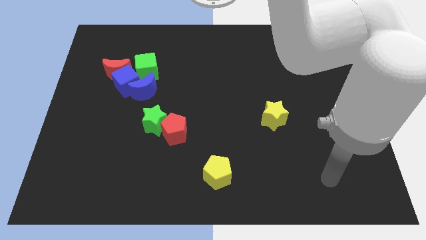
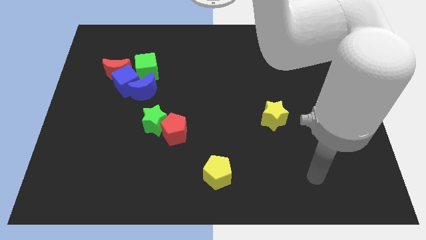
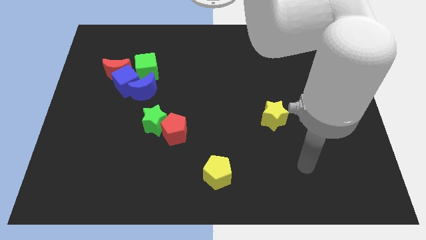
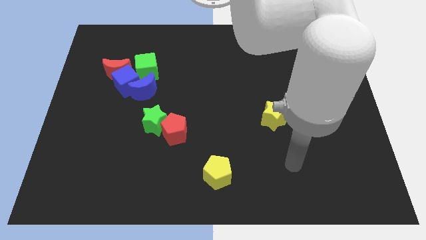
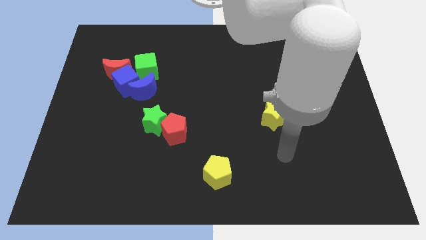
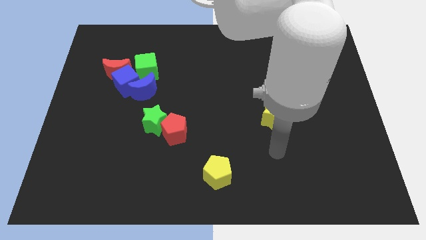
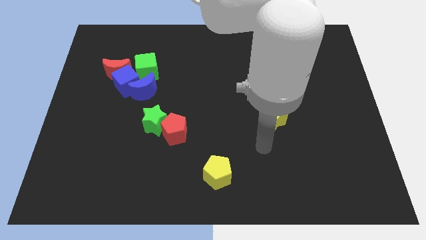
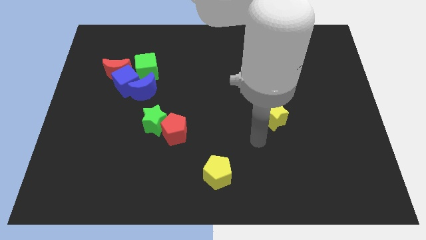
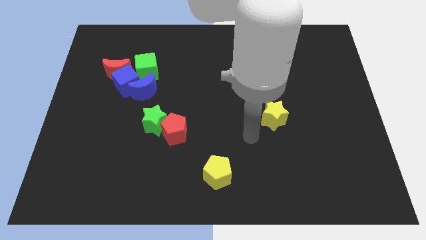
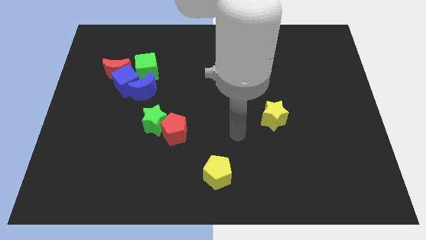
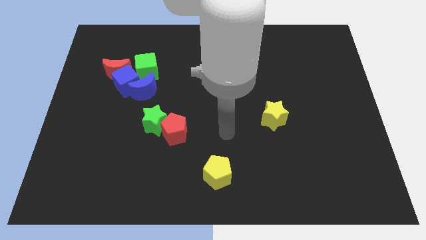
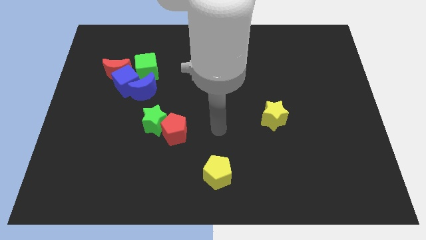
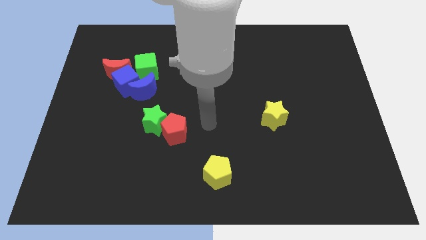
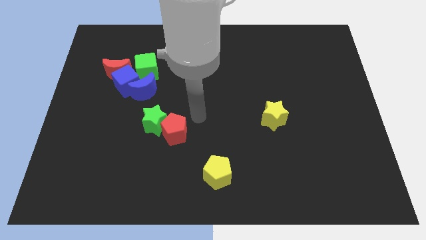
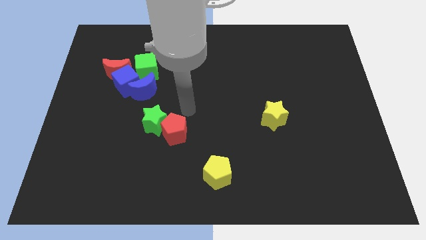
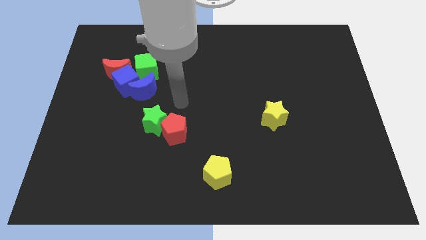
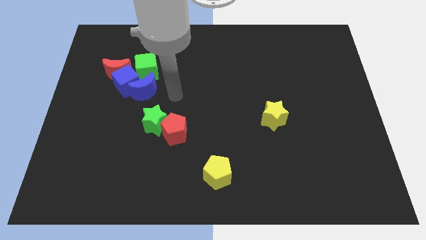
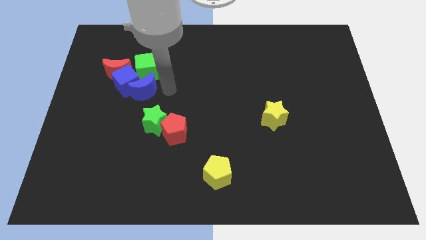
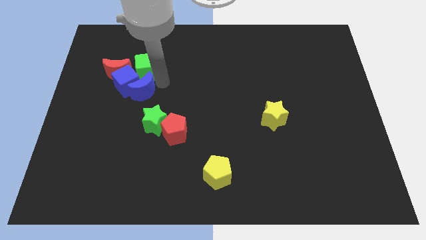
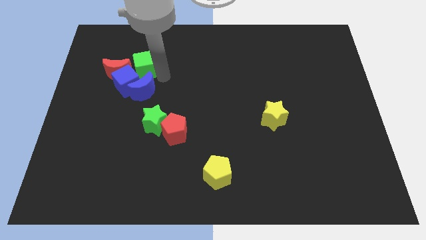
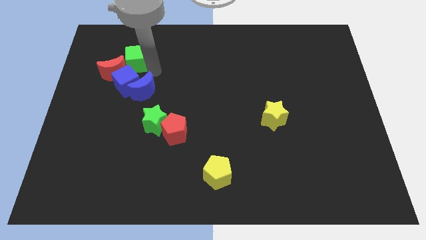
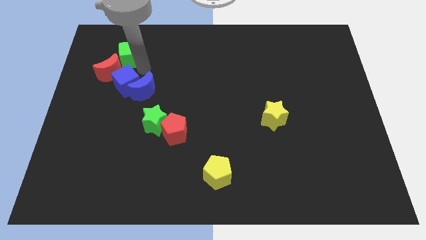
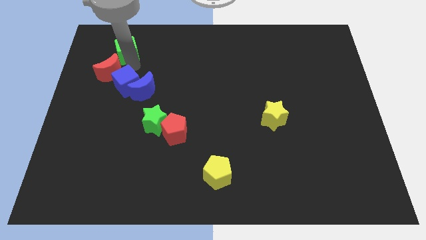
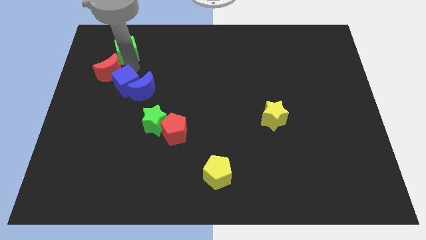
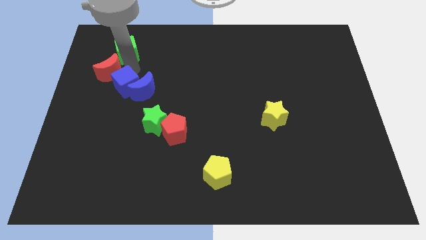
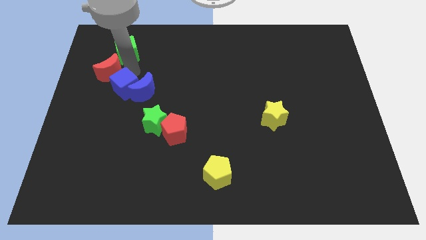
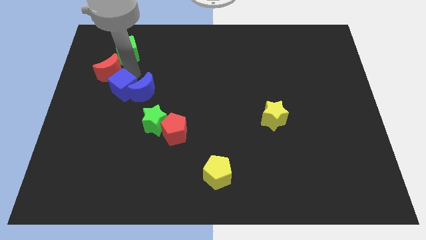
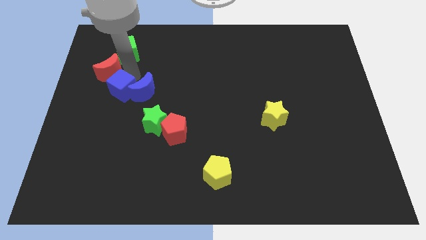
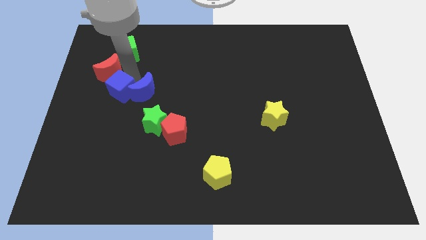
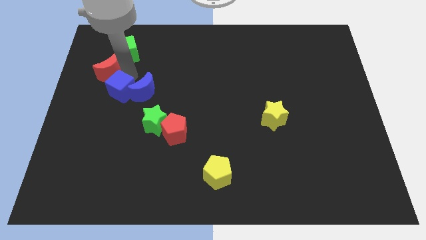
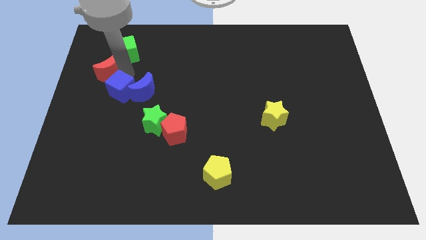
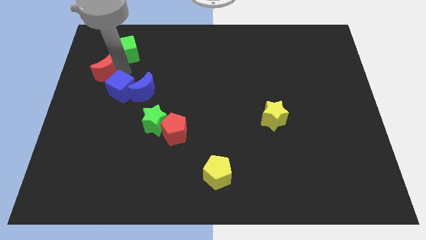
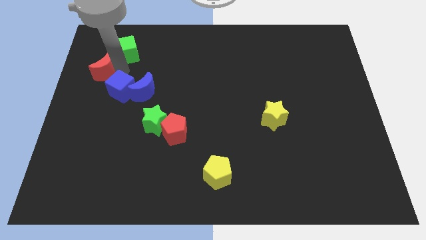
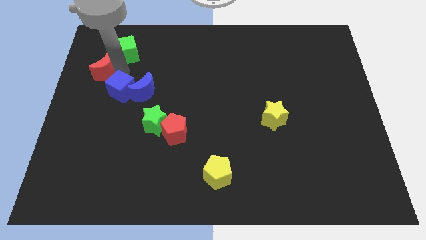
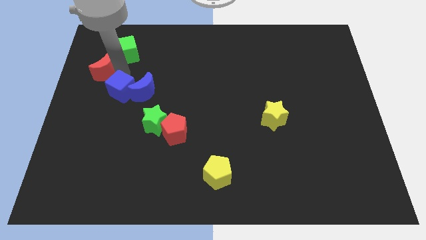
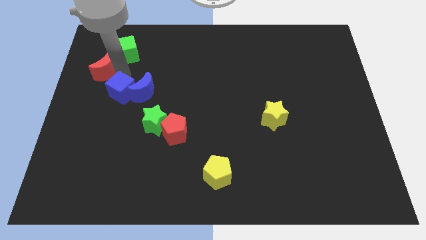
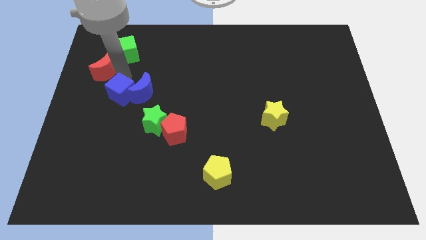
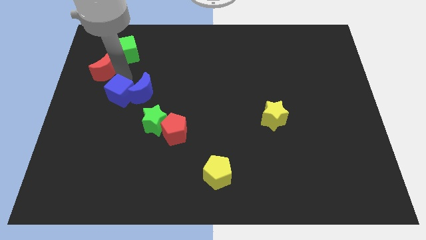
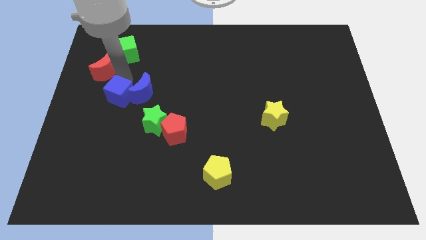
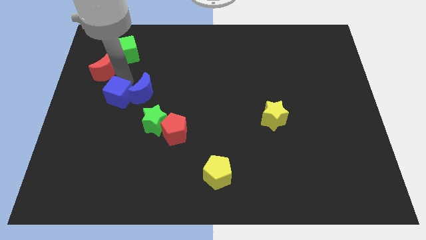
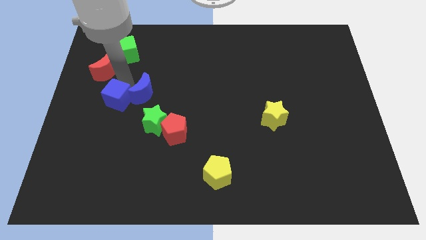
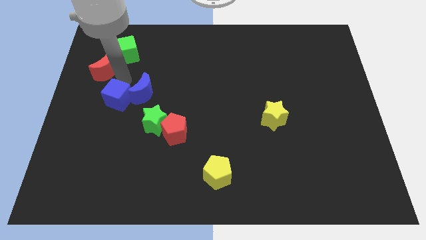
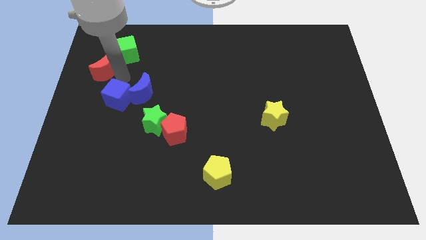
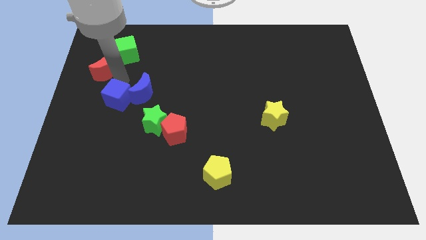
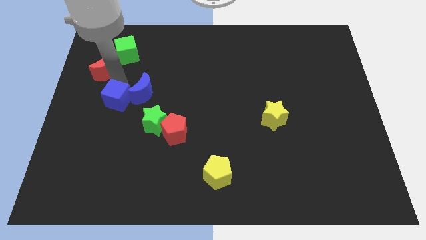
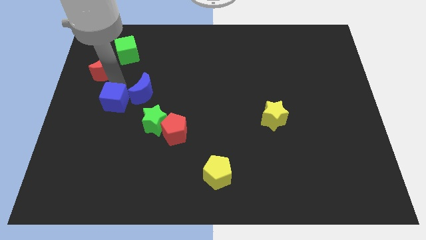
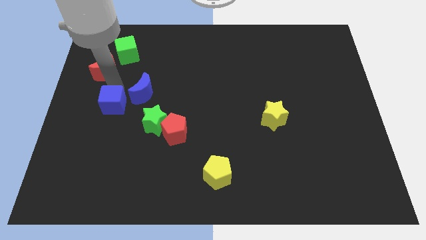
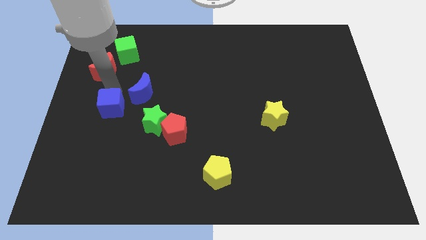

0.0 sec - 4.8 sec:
push the blue cube a bit downwards

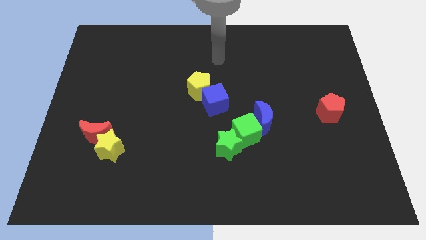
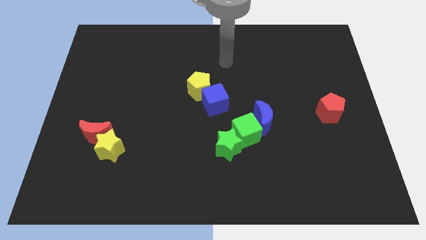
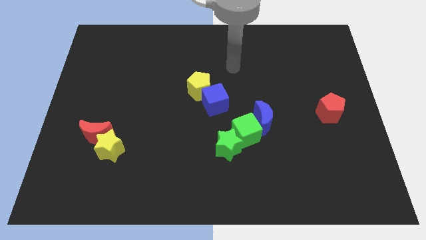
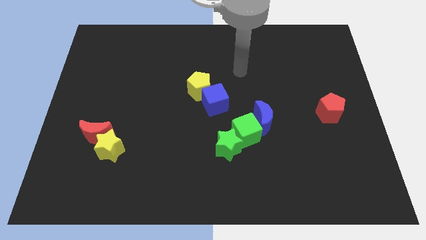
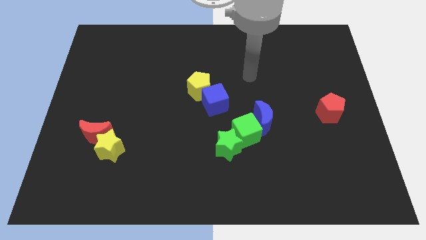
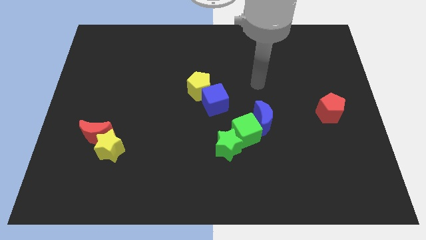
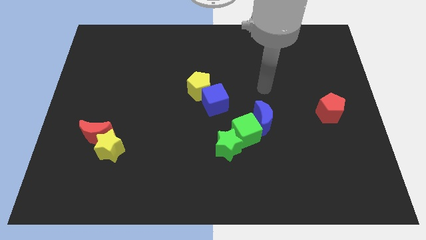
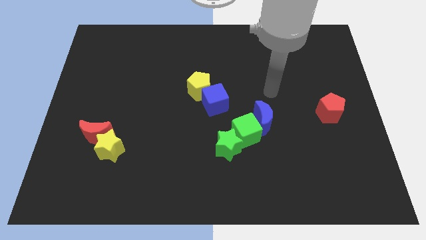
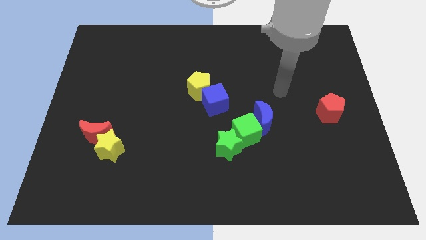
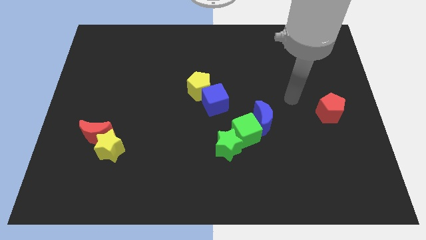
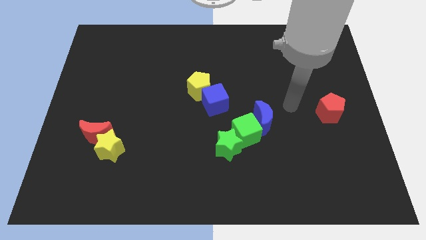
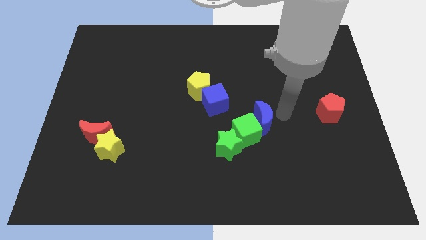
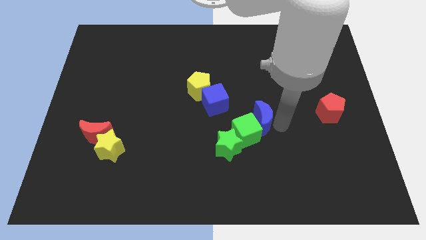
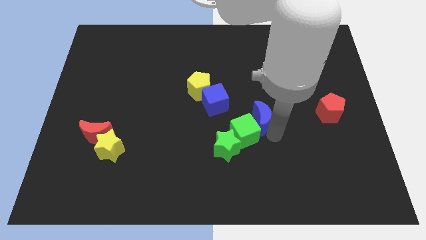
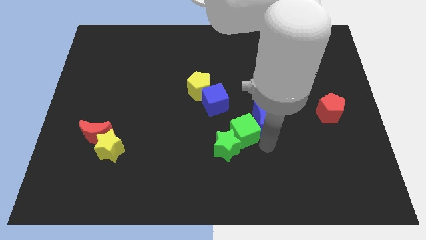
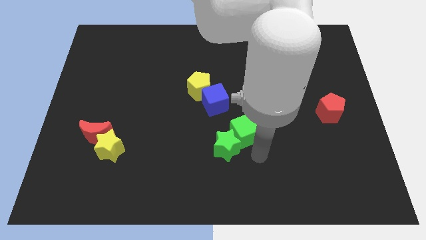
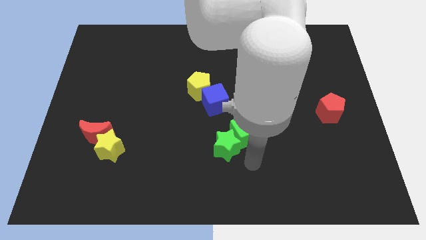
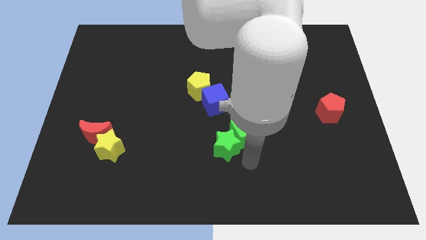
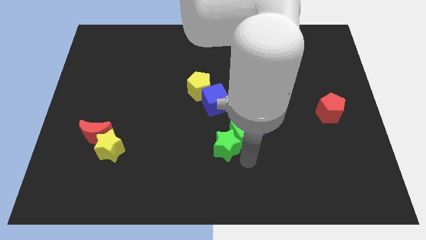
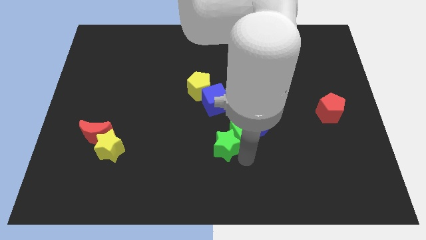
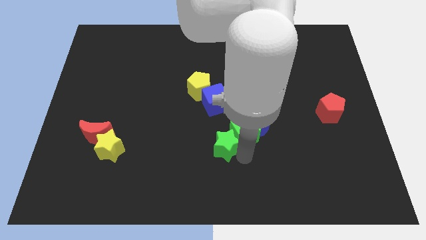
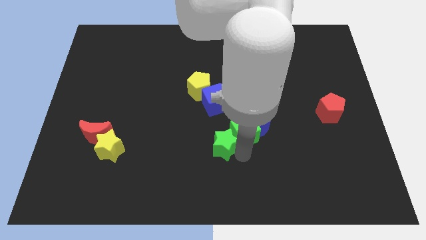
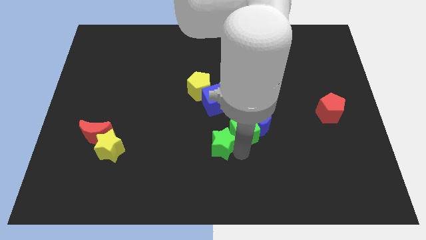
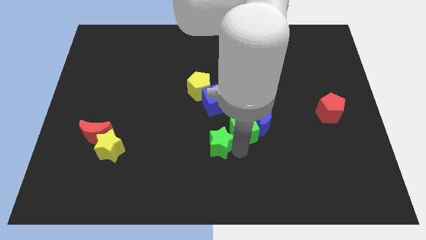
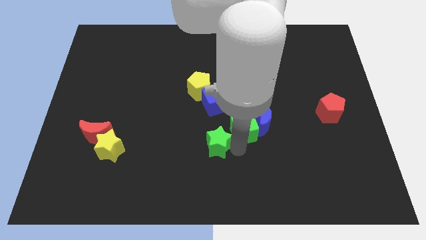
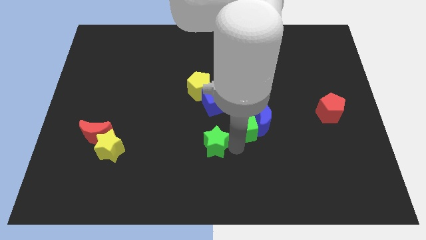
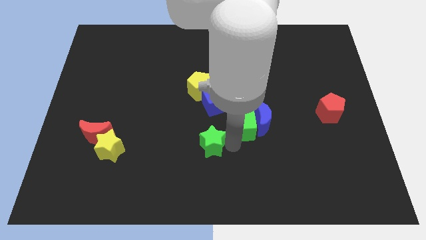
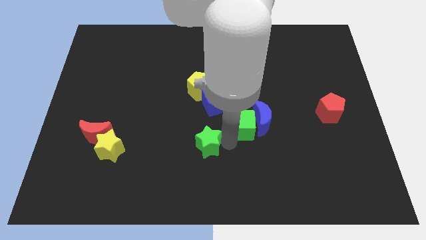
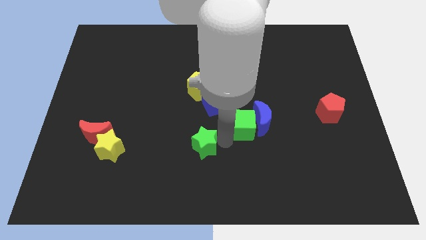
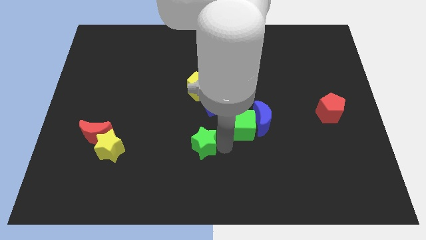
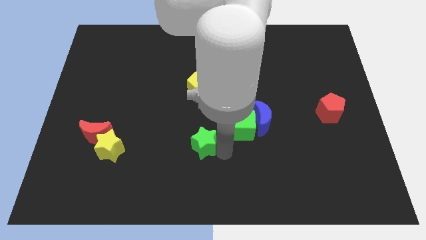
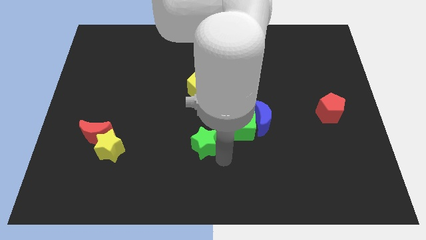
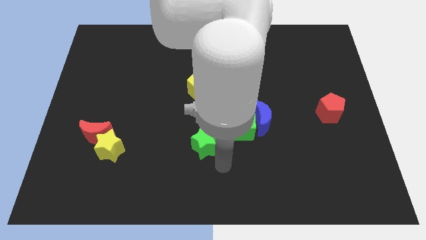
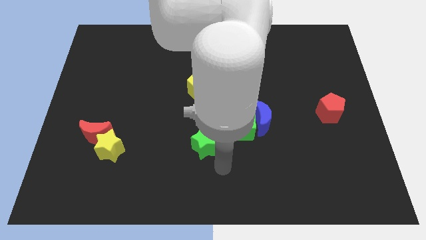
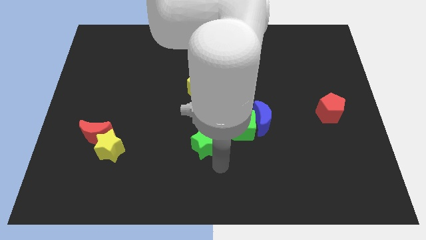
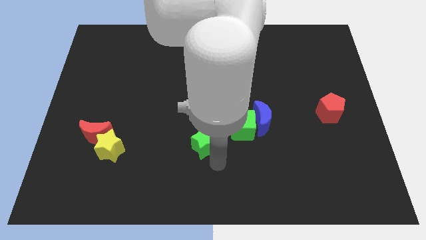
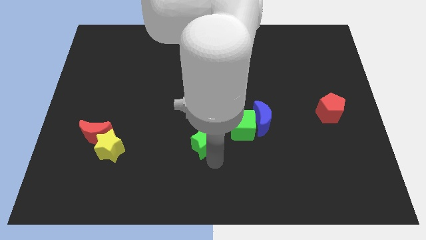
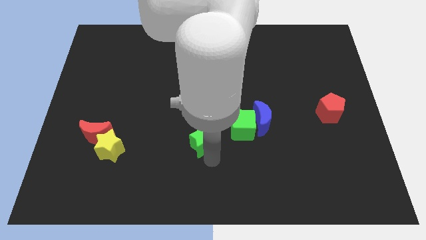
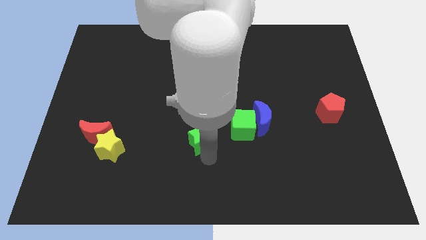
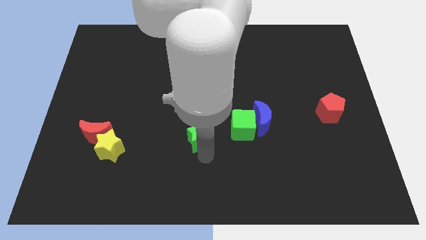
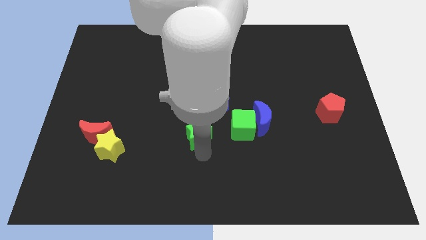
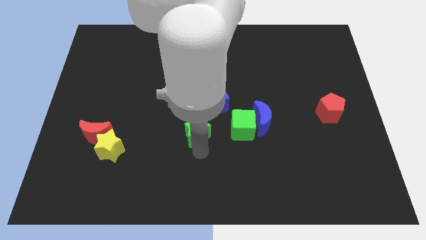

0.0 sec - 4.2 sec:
slide the green star diagonally up and left a little
